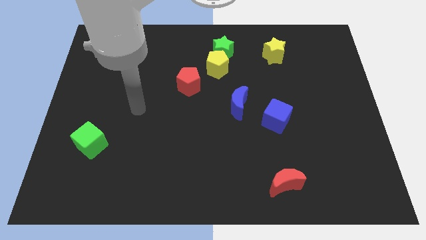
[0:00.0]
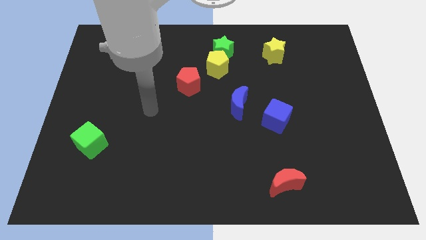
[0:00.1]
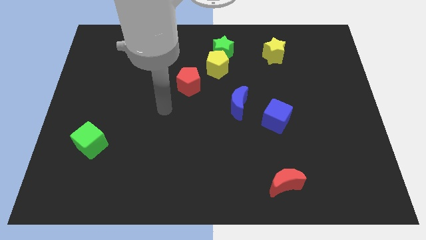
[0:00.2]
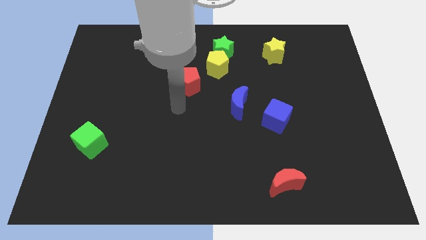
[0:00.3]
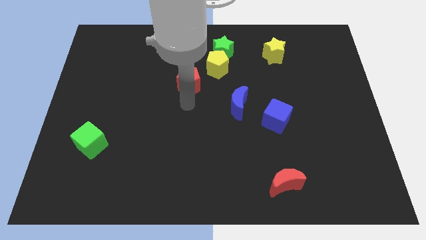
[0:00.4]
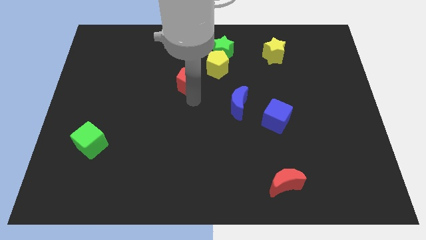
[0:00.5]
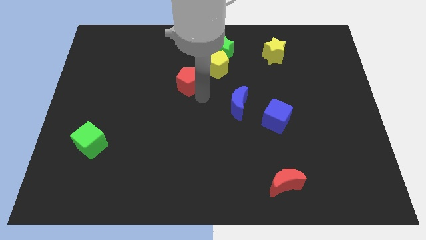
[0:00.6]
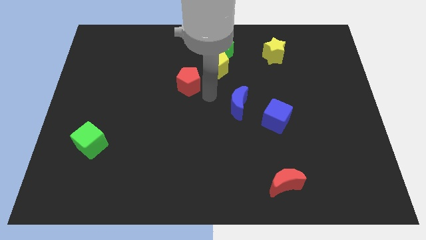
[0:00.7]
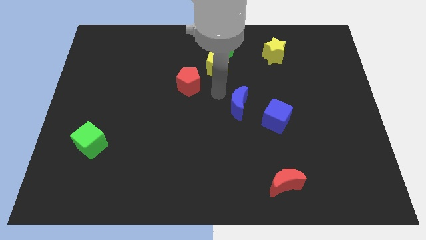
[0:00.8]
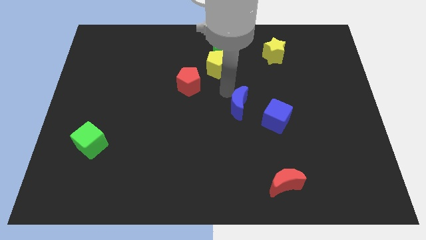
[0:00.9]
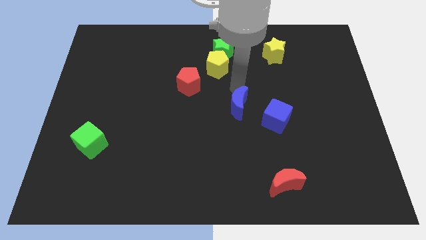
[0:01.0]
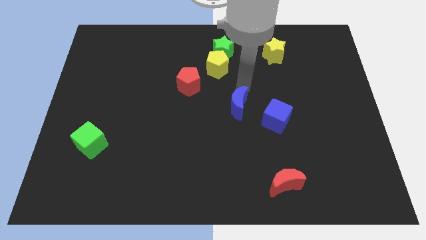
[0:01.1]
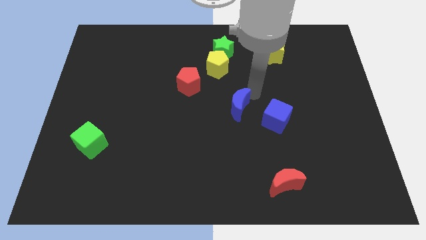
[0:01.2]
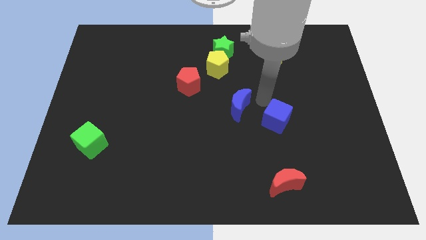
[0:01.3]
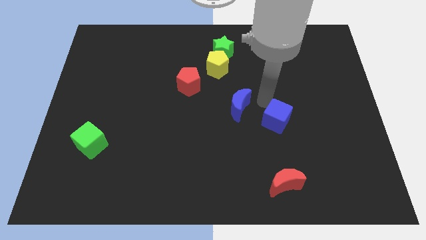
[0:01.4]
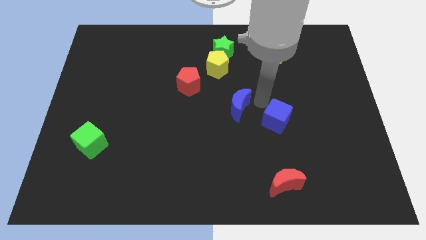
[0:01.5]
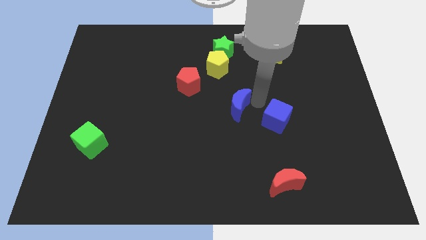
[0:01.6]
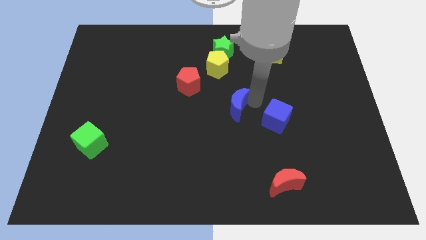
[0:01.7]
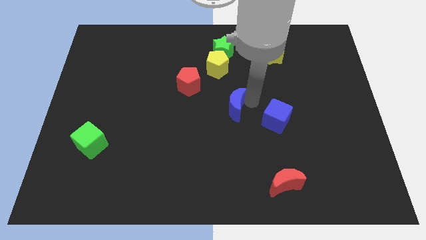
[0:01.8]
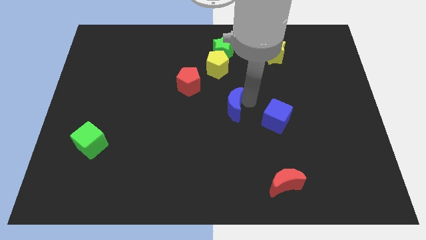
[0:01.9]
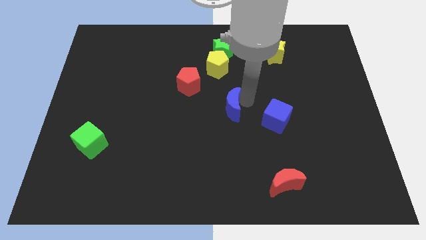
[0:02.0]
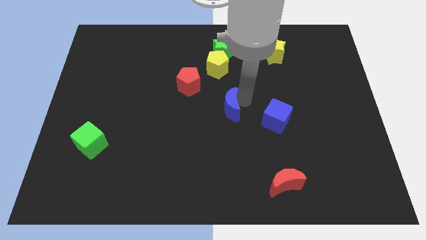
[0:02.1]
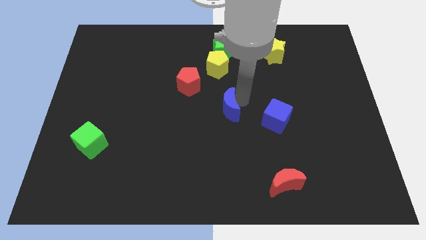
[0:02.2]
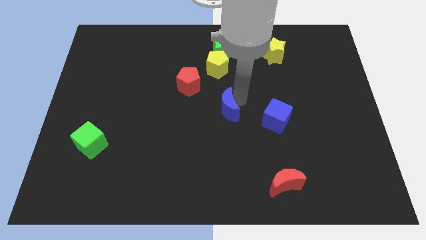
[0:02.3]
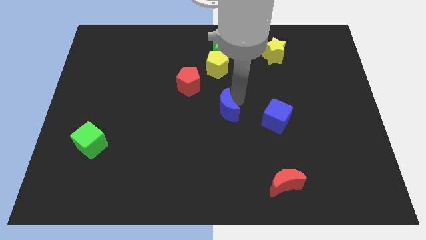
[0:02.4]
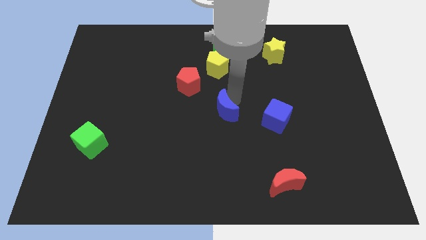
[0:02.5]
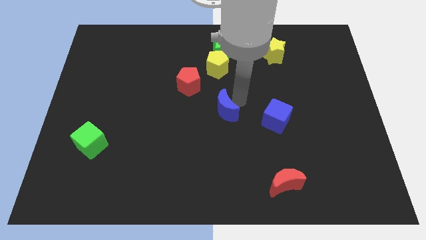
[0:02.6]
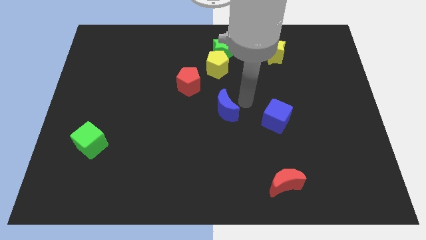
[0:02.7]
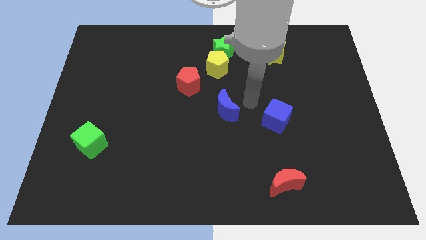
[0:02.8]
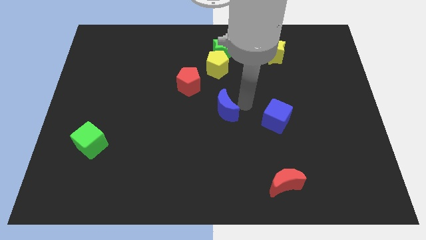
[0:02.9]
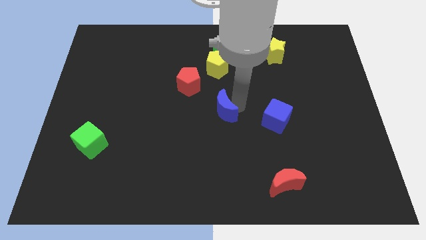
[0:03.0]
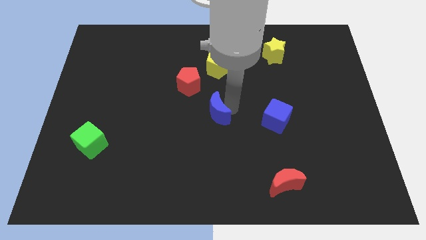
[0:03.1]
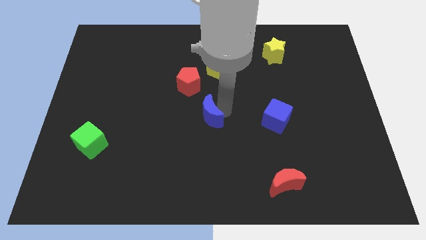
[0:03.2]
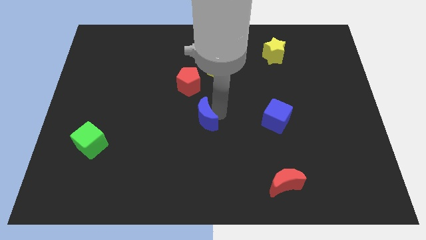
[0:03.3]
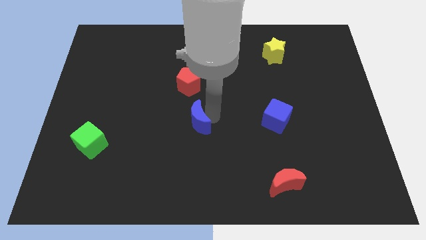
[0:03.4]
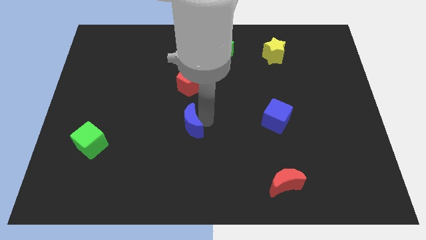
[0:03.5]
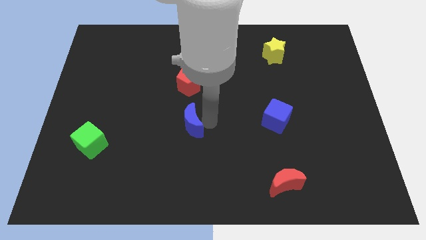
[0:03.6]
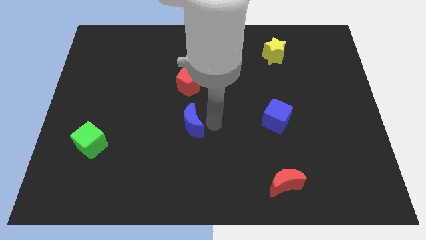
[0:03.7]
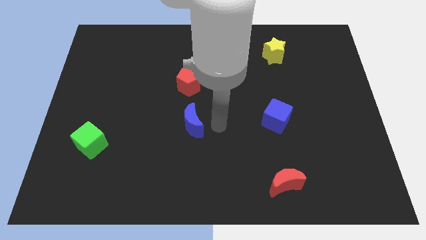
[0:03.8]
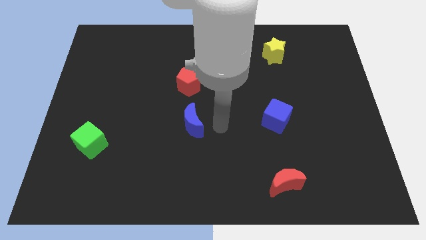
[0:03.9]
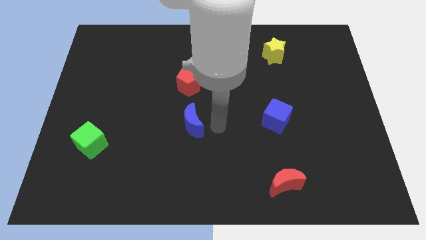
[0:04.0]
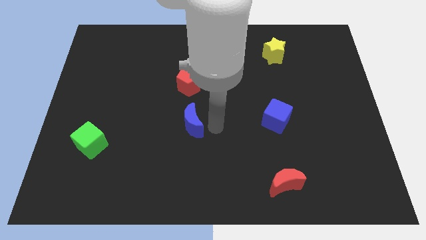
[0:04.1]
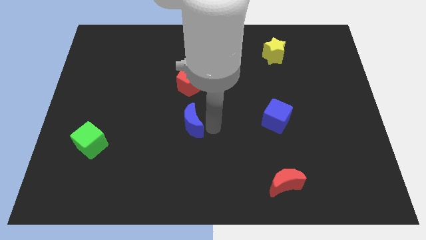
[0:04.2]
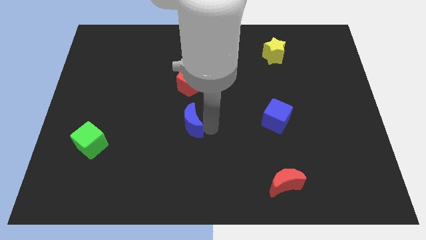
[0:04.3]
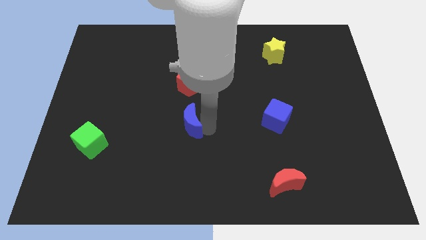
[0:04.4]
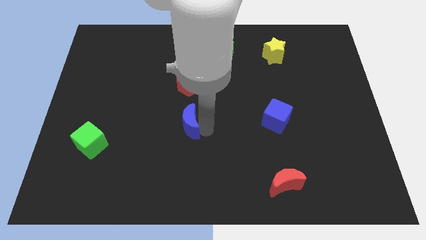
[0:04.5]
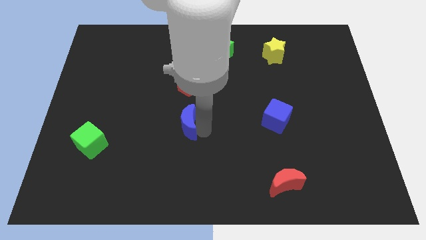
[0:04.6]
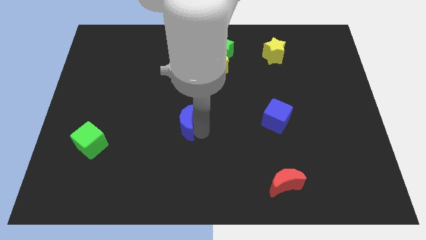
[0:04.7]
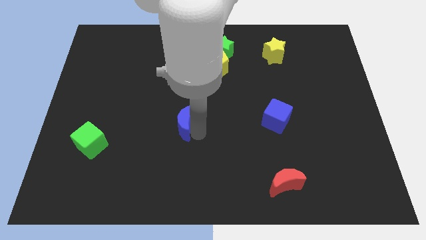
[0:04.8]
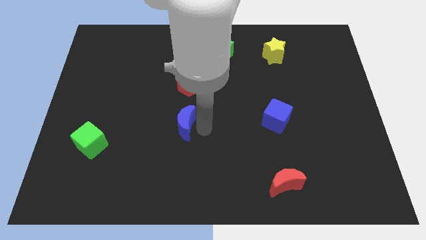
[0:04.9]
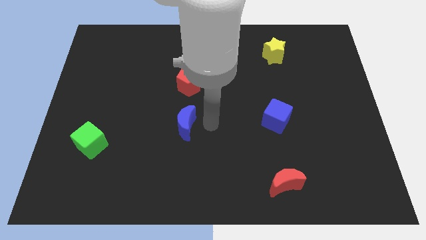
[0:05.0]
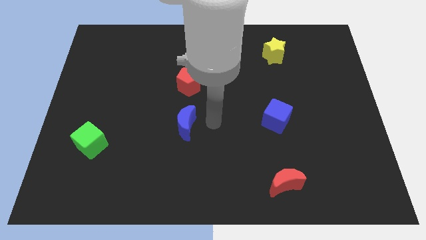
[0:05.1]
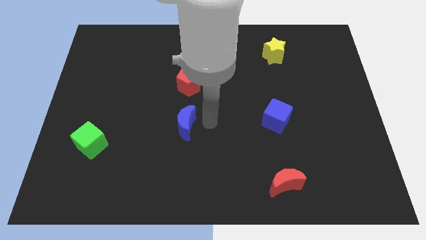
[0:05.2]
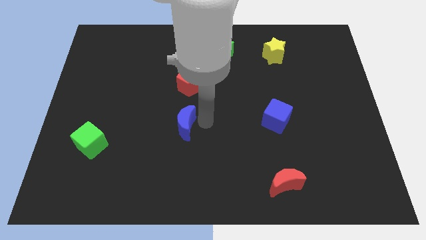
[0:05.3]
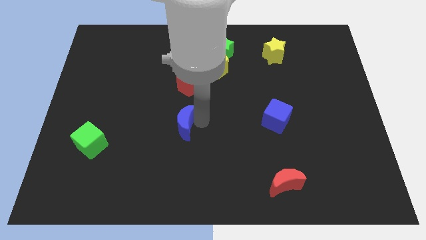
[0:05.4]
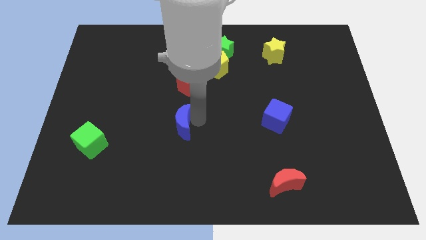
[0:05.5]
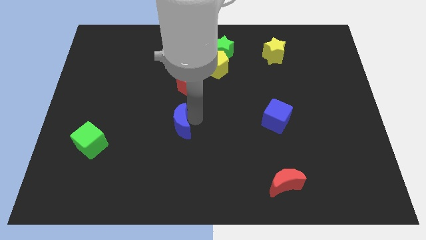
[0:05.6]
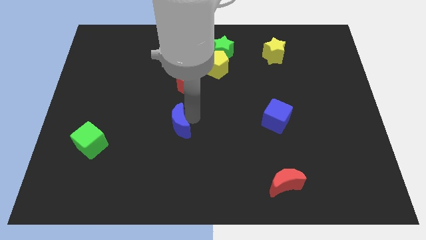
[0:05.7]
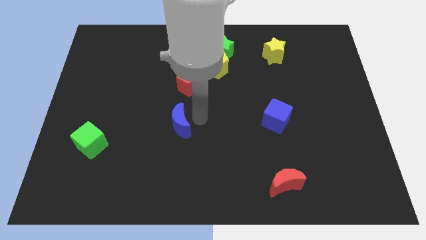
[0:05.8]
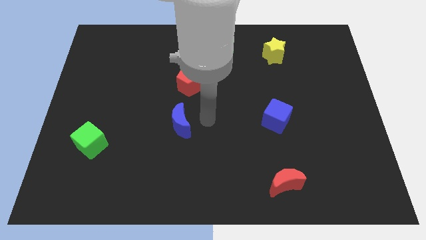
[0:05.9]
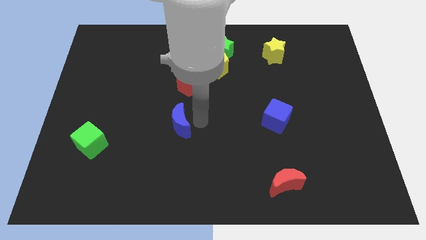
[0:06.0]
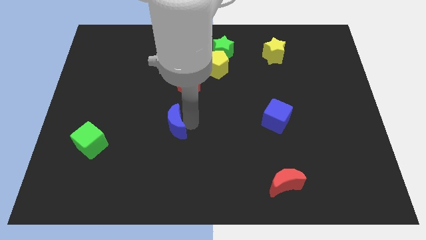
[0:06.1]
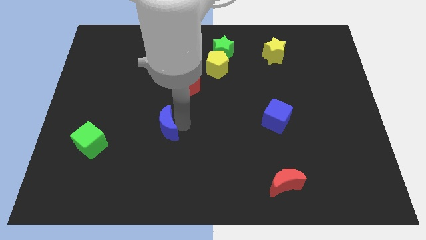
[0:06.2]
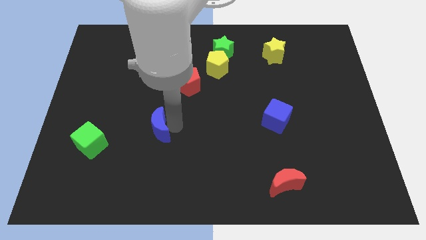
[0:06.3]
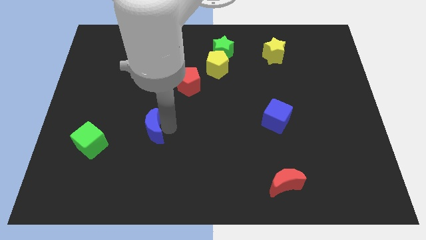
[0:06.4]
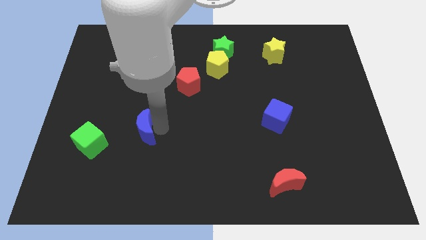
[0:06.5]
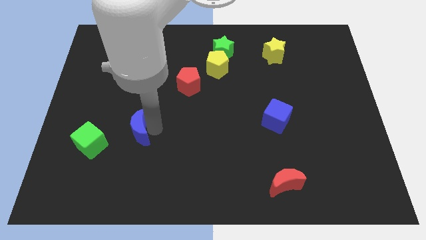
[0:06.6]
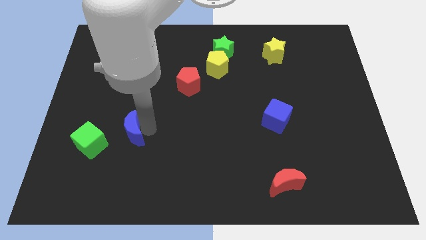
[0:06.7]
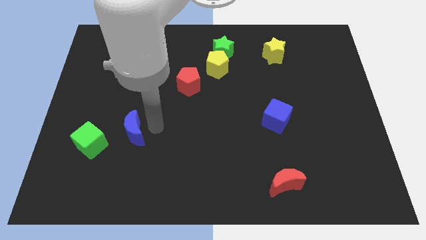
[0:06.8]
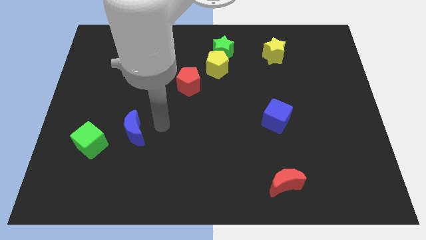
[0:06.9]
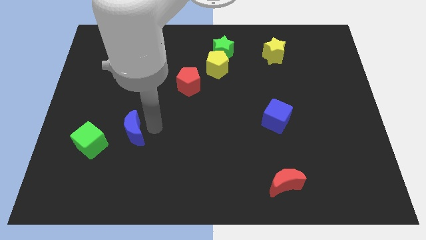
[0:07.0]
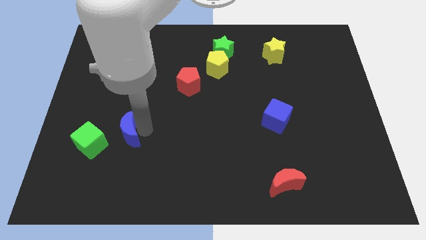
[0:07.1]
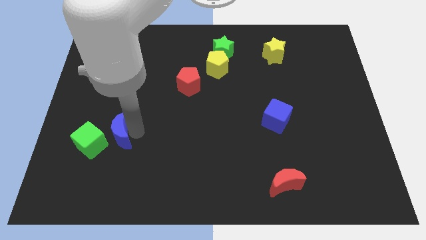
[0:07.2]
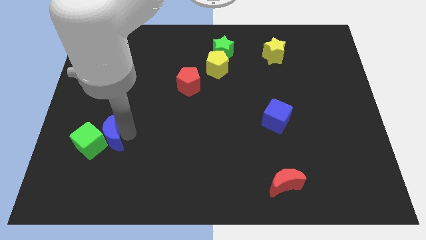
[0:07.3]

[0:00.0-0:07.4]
move the blue moon to the green cube

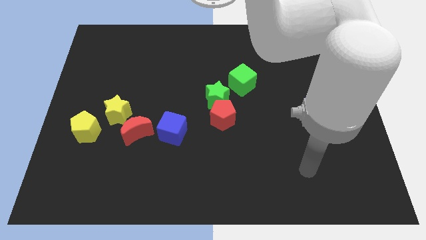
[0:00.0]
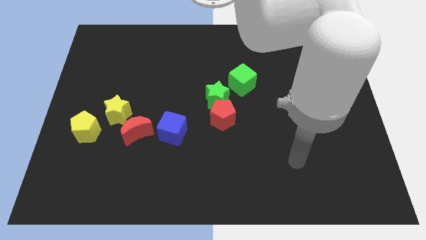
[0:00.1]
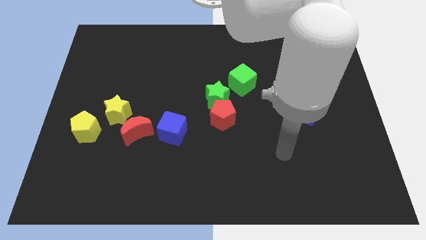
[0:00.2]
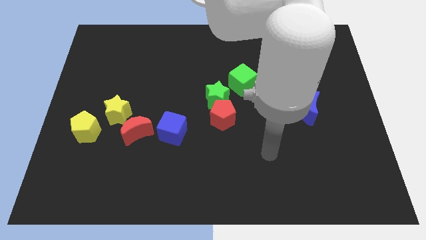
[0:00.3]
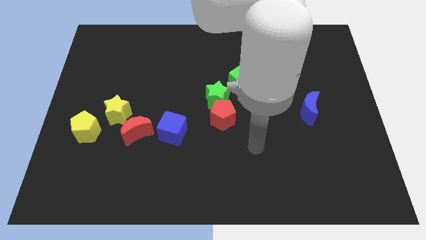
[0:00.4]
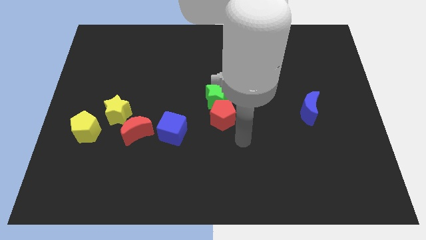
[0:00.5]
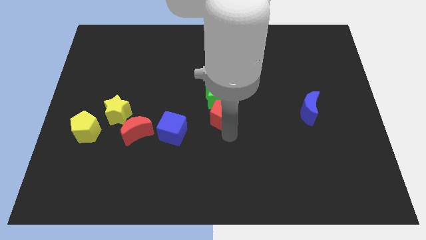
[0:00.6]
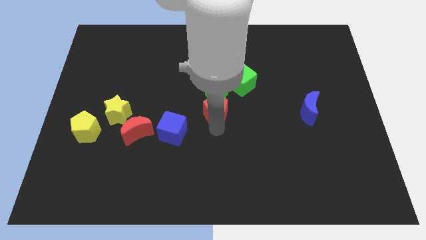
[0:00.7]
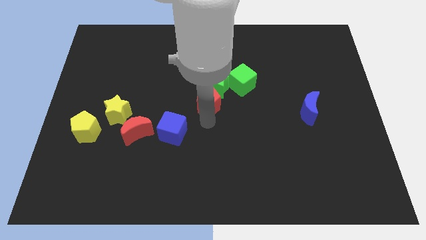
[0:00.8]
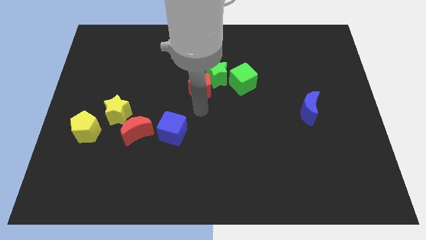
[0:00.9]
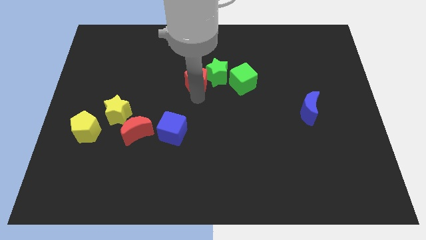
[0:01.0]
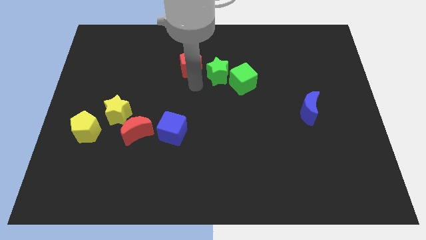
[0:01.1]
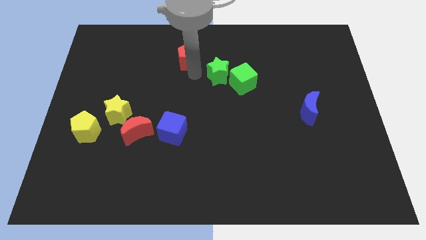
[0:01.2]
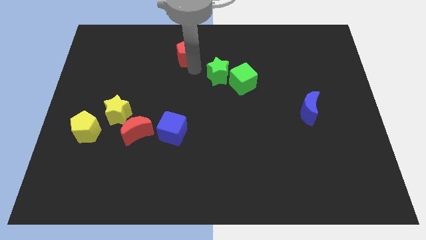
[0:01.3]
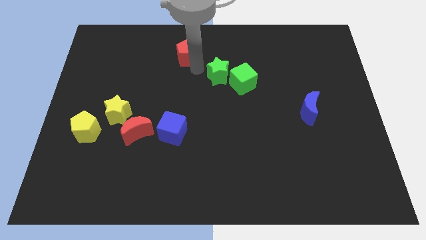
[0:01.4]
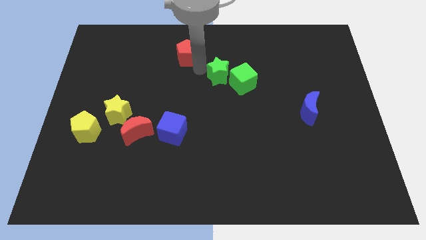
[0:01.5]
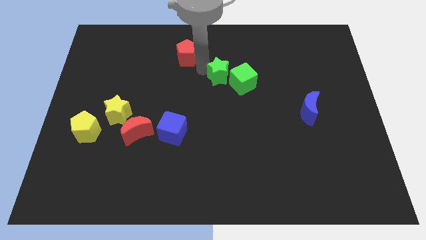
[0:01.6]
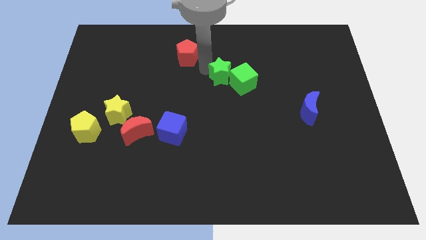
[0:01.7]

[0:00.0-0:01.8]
move the green star towards the green cube
